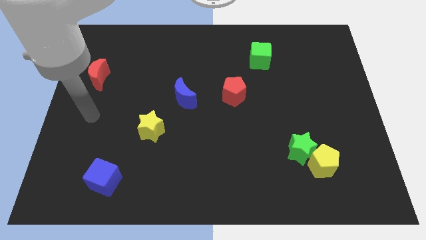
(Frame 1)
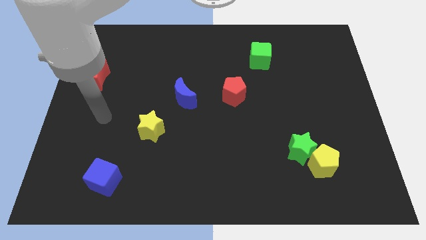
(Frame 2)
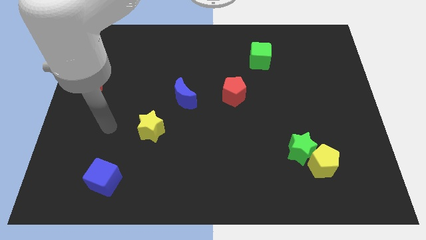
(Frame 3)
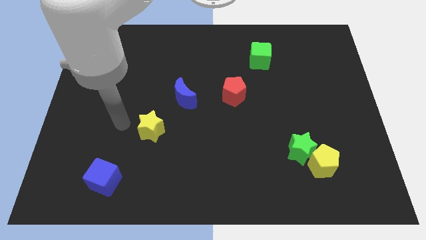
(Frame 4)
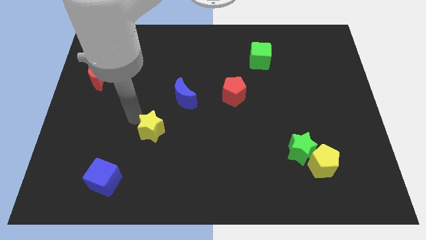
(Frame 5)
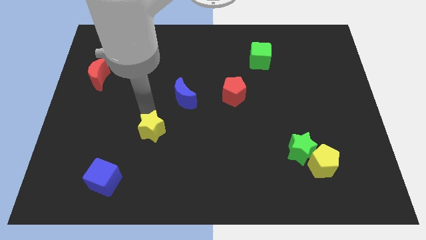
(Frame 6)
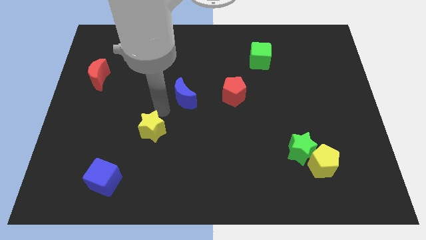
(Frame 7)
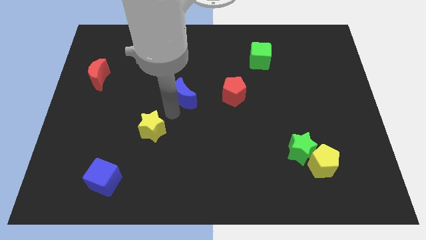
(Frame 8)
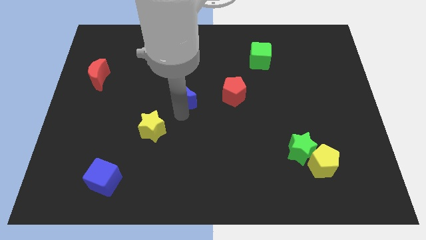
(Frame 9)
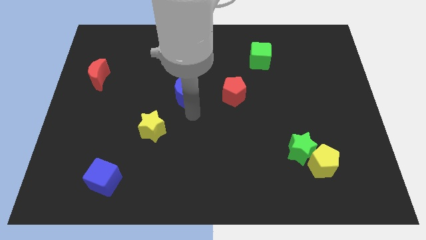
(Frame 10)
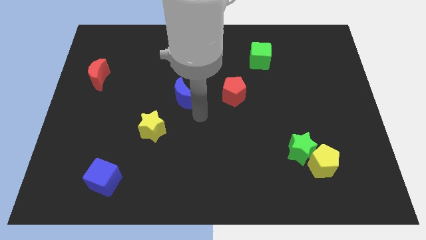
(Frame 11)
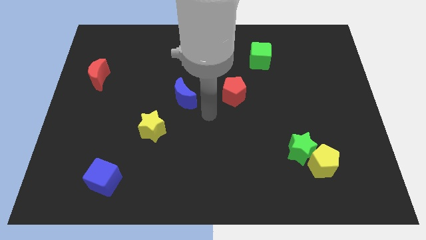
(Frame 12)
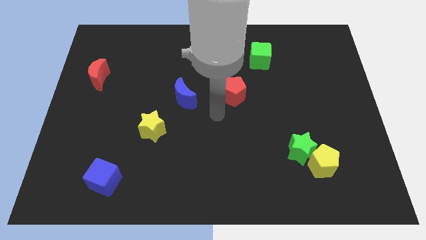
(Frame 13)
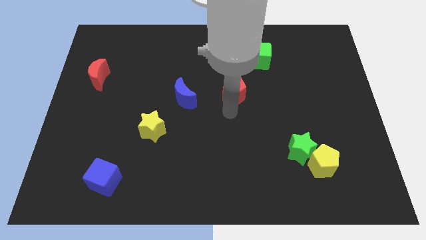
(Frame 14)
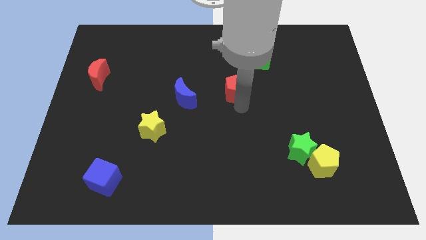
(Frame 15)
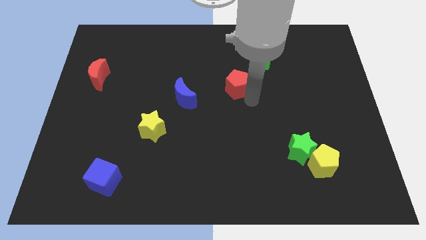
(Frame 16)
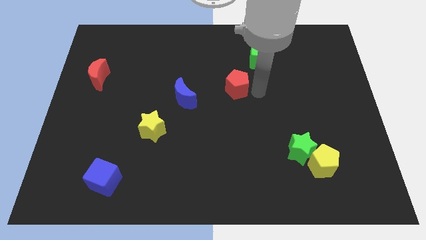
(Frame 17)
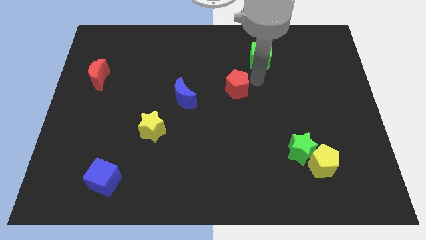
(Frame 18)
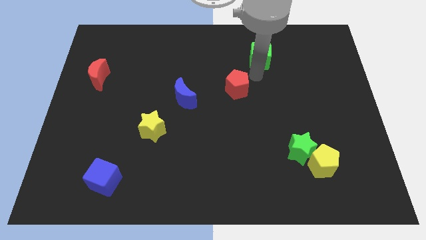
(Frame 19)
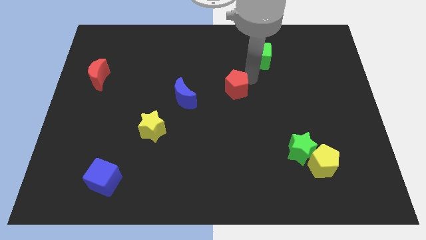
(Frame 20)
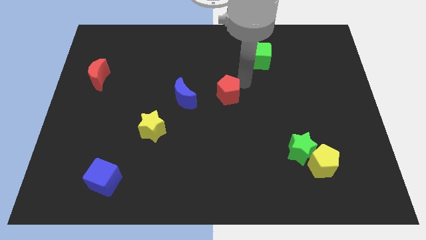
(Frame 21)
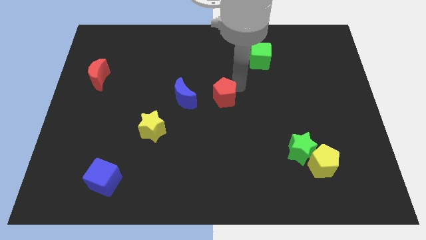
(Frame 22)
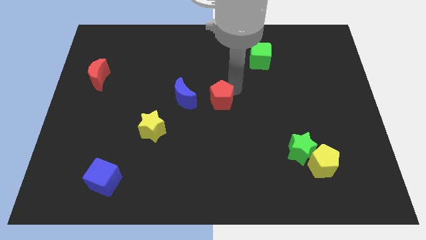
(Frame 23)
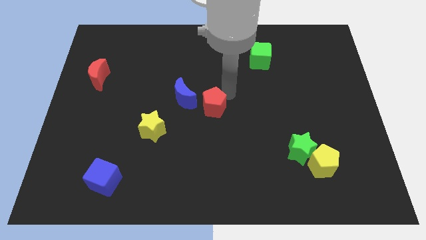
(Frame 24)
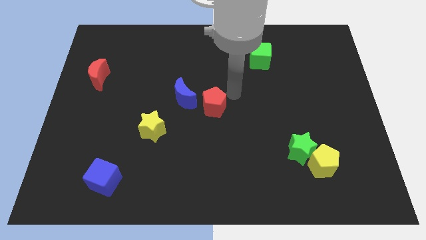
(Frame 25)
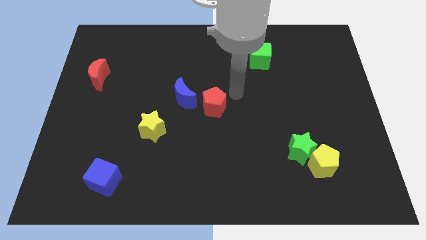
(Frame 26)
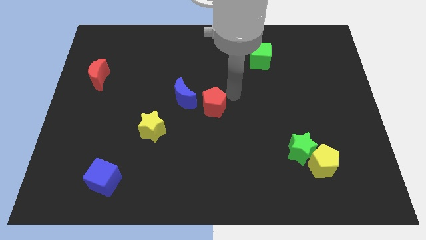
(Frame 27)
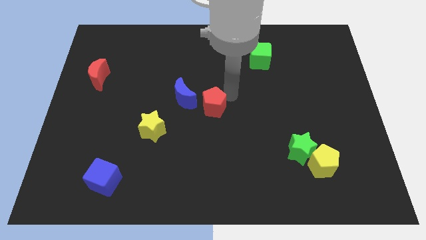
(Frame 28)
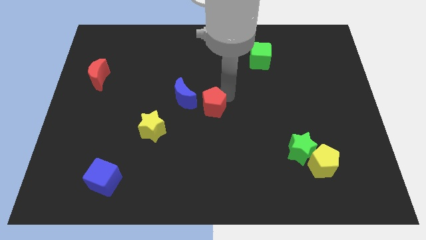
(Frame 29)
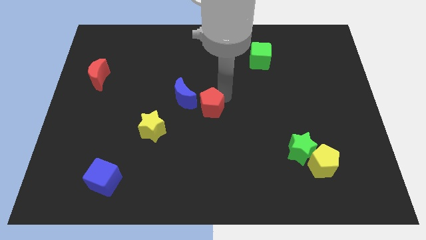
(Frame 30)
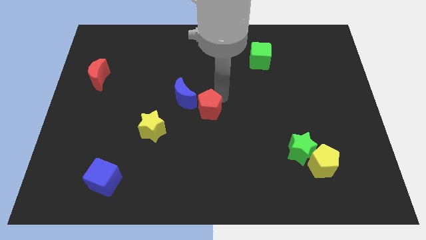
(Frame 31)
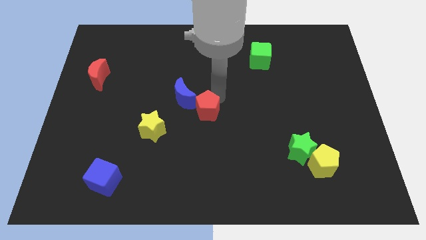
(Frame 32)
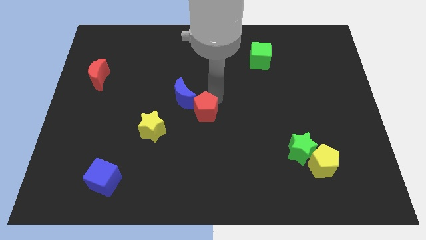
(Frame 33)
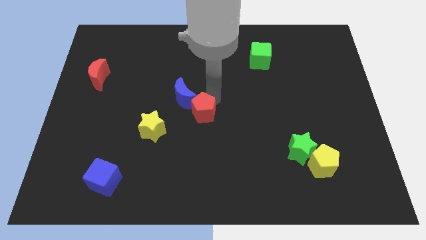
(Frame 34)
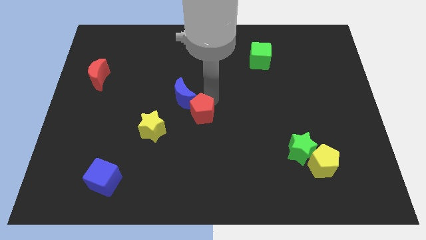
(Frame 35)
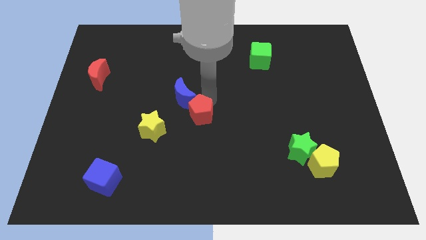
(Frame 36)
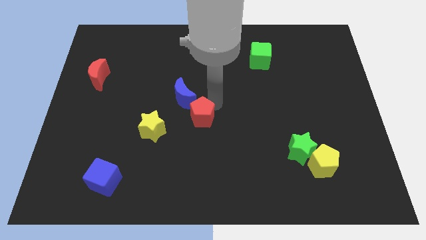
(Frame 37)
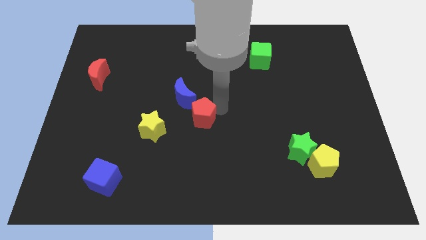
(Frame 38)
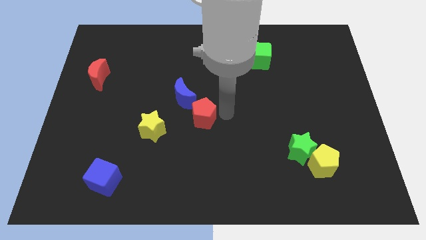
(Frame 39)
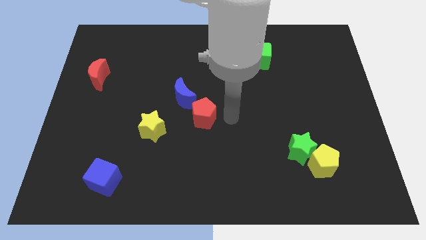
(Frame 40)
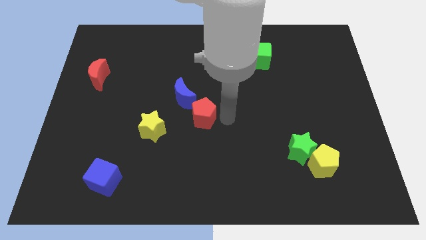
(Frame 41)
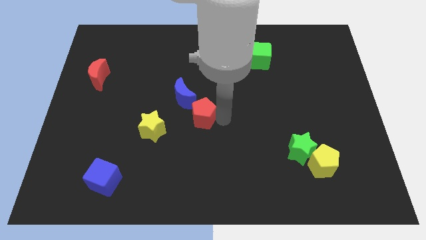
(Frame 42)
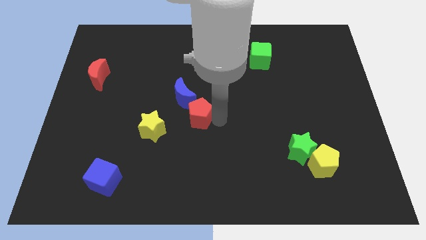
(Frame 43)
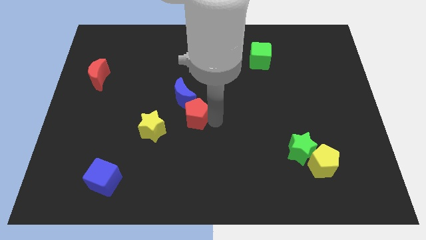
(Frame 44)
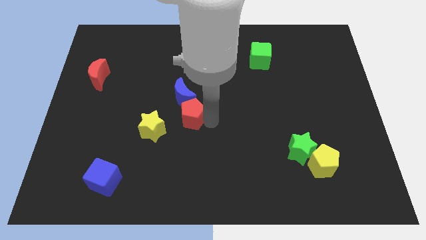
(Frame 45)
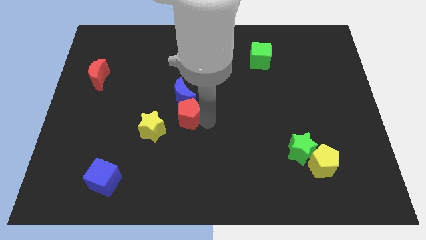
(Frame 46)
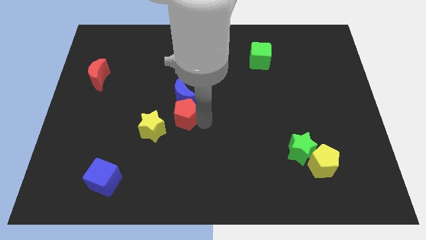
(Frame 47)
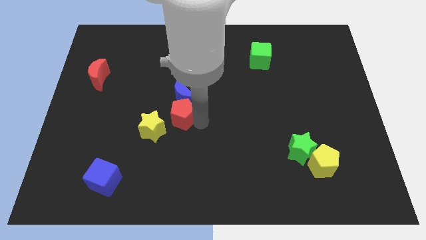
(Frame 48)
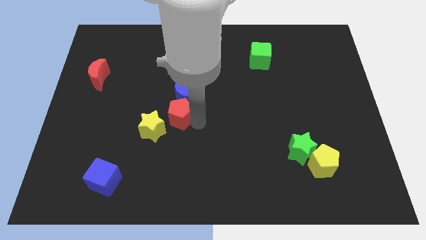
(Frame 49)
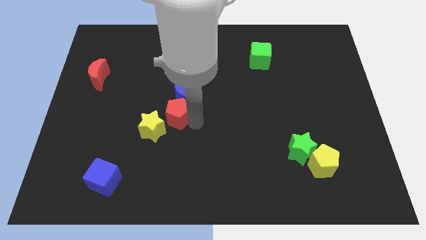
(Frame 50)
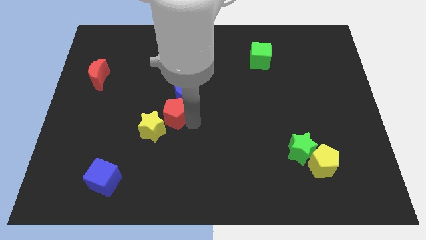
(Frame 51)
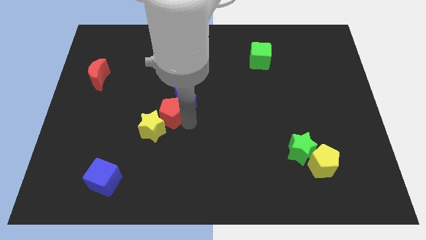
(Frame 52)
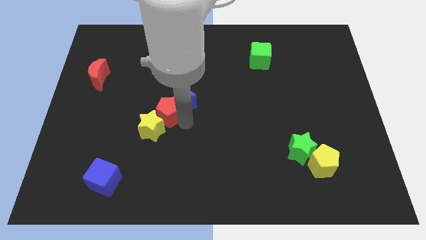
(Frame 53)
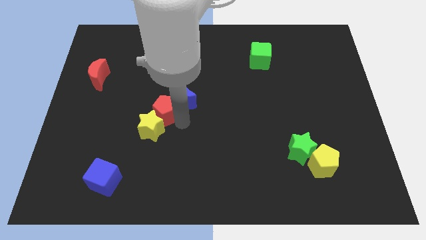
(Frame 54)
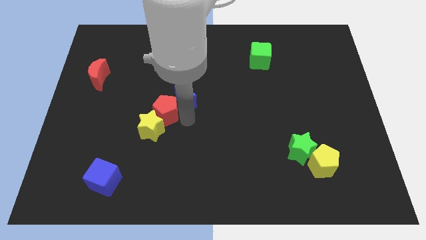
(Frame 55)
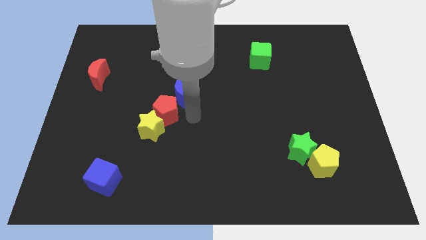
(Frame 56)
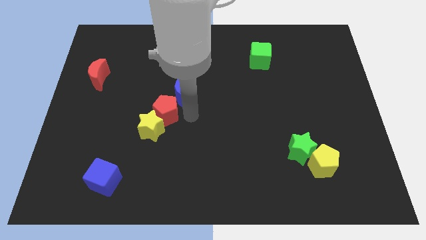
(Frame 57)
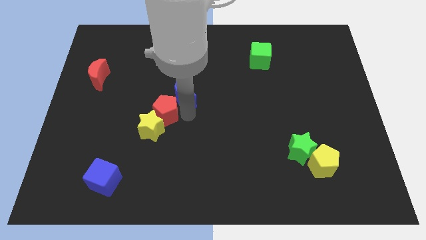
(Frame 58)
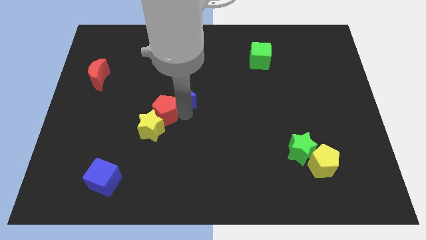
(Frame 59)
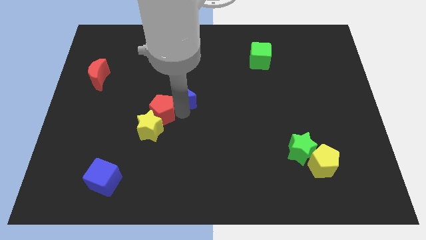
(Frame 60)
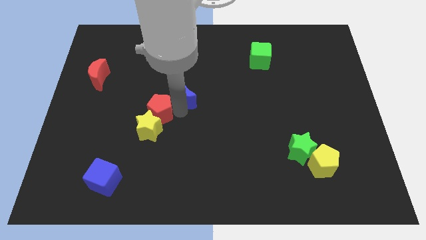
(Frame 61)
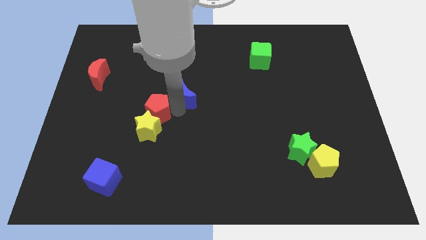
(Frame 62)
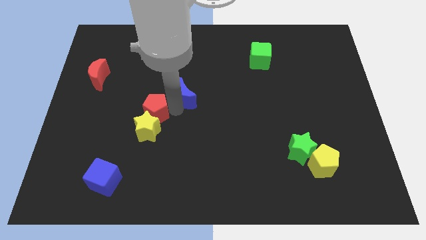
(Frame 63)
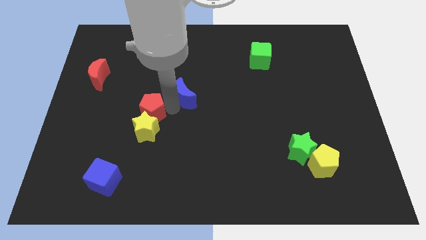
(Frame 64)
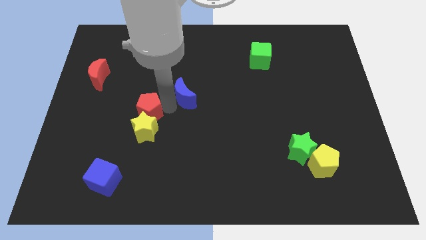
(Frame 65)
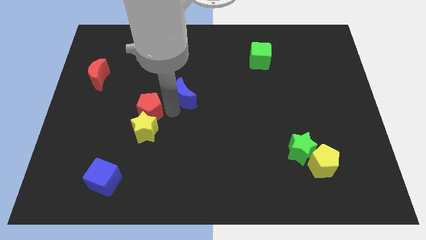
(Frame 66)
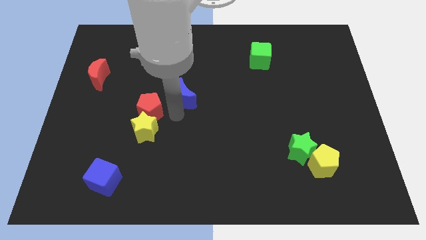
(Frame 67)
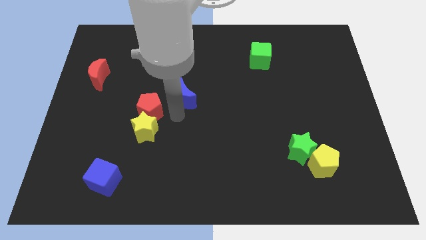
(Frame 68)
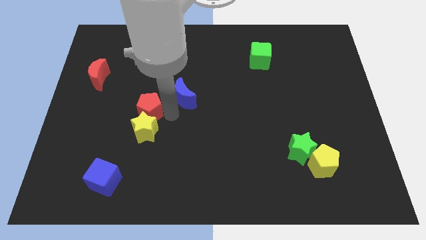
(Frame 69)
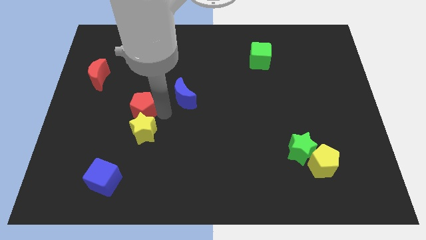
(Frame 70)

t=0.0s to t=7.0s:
move the red pentagon to the left

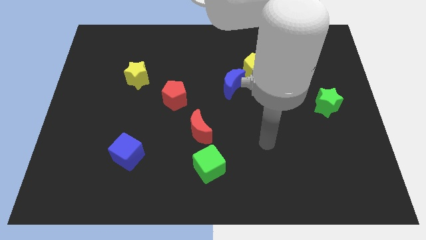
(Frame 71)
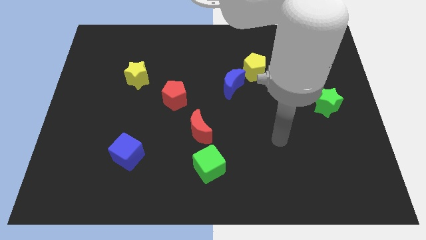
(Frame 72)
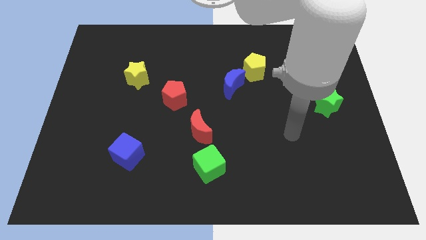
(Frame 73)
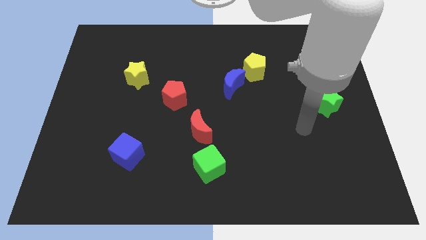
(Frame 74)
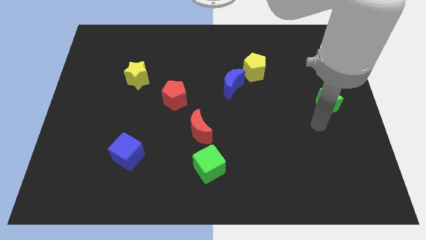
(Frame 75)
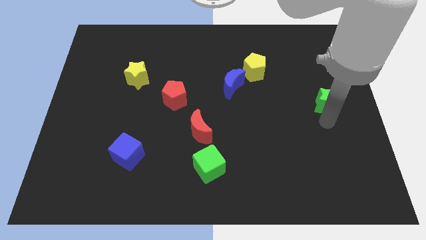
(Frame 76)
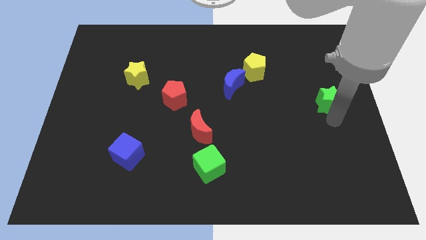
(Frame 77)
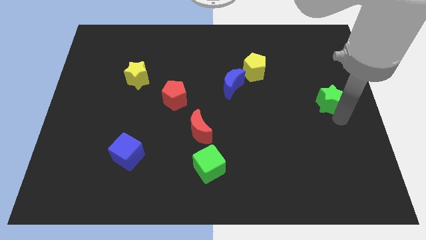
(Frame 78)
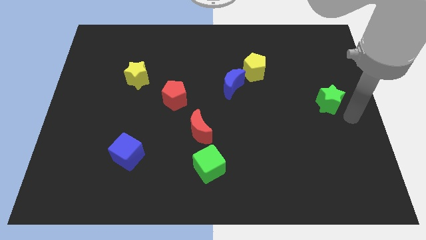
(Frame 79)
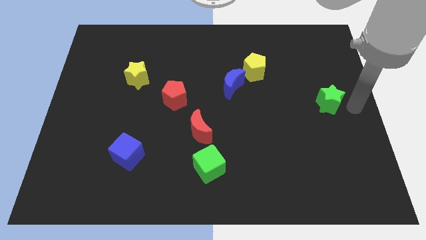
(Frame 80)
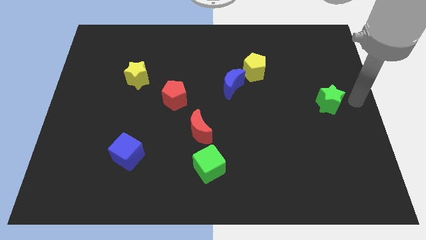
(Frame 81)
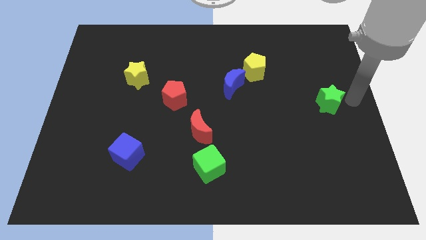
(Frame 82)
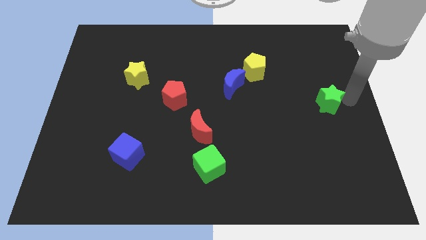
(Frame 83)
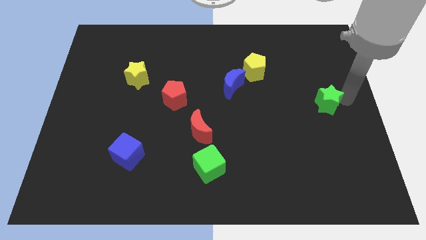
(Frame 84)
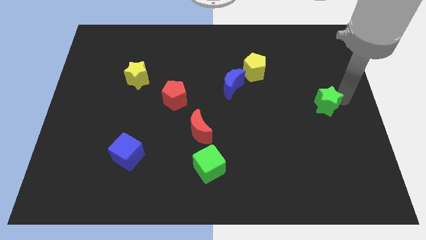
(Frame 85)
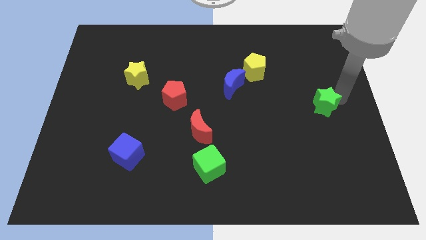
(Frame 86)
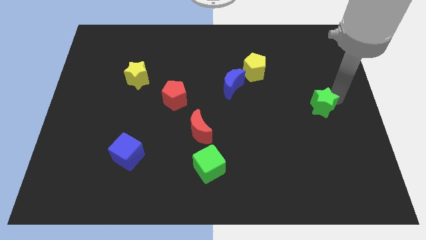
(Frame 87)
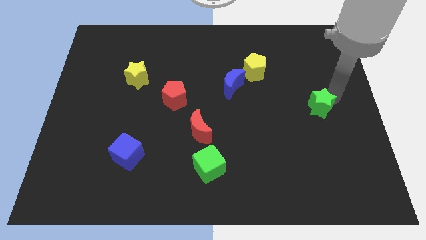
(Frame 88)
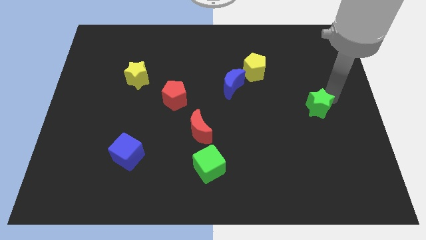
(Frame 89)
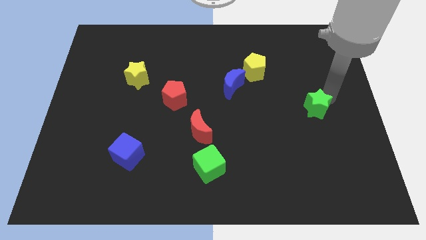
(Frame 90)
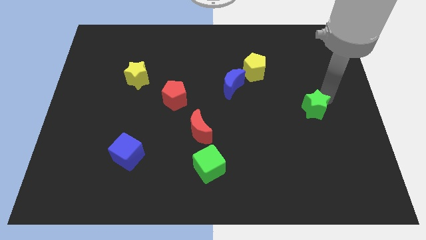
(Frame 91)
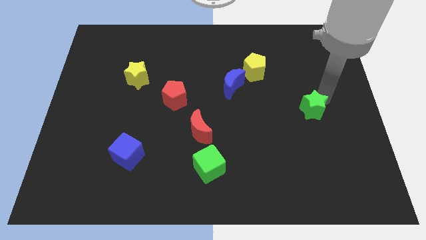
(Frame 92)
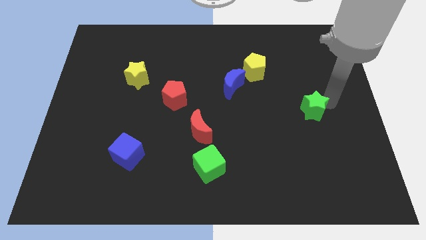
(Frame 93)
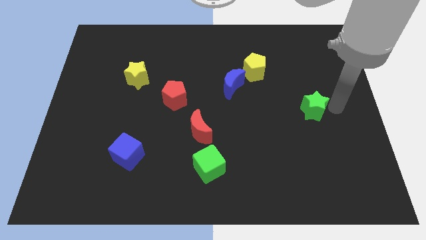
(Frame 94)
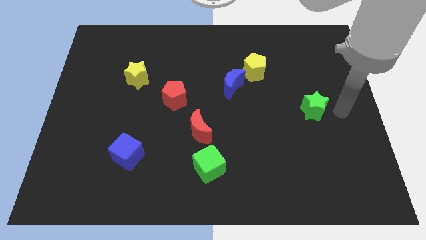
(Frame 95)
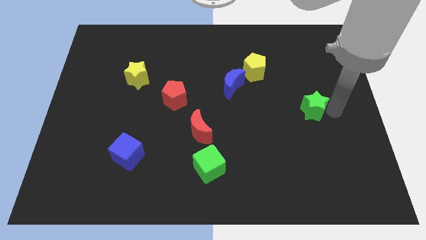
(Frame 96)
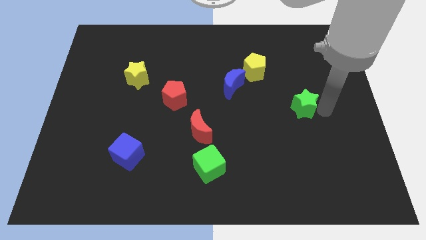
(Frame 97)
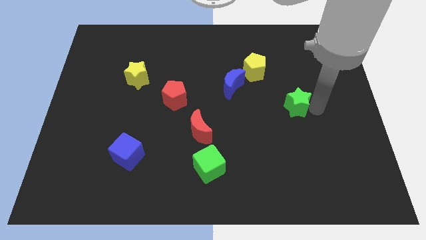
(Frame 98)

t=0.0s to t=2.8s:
move the green star left slightly
